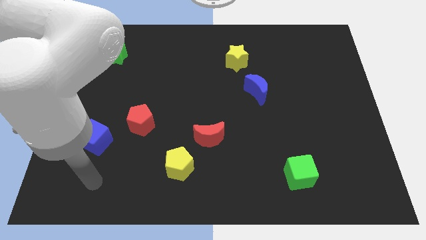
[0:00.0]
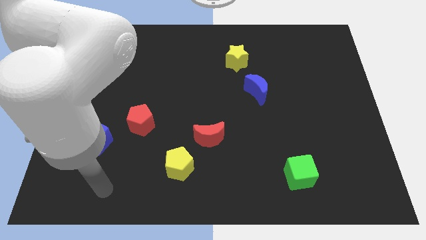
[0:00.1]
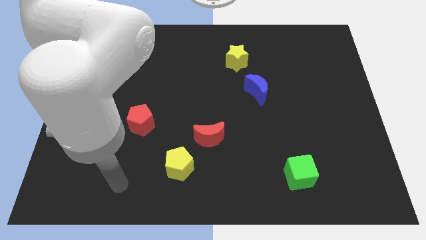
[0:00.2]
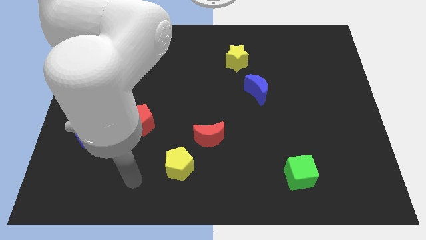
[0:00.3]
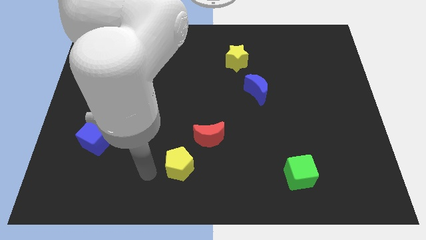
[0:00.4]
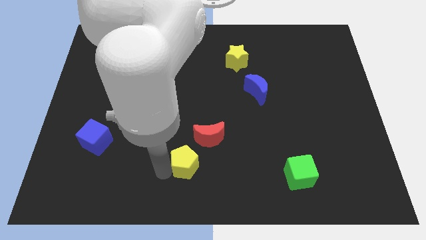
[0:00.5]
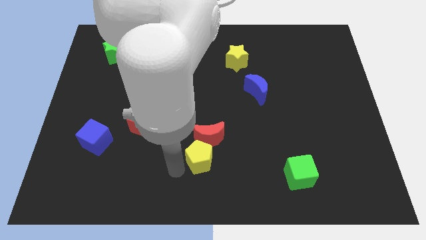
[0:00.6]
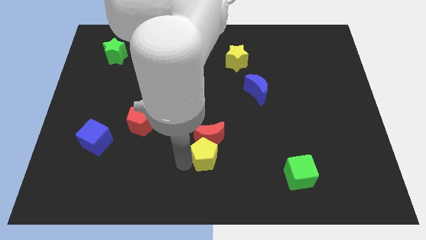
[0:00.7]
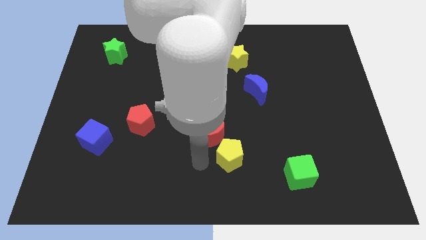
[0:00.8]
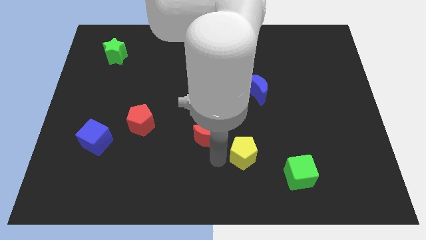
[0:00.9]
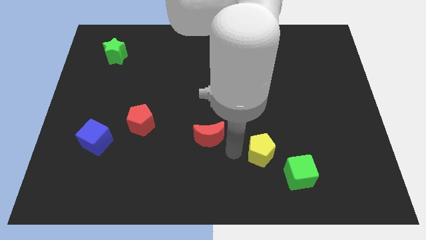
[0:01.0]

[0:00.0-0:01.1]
pull the red moon apart from the yellow pentagon

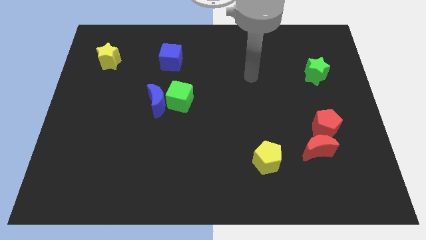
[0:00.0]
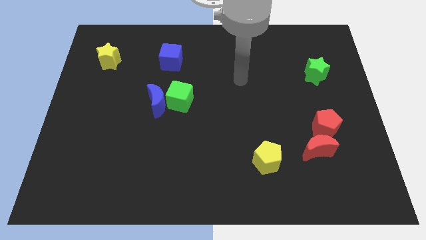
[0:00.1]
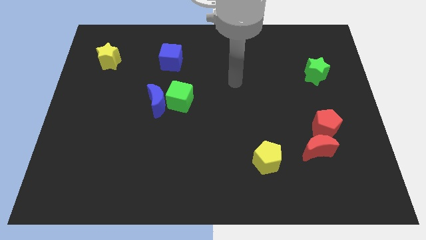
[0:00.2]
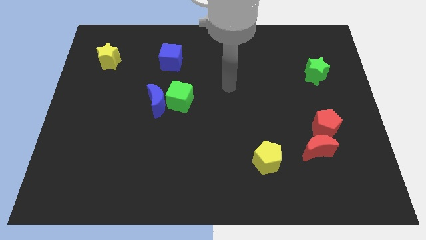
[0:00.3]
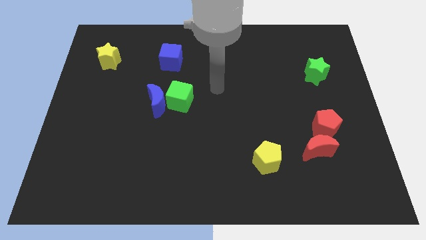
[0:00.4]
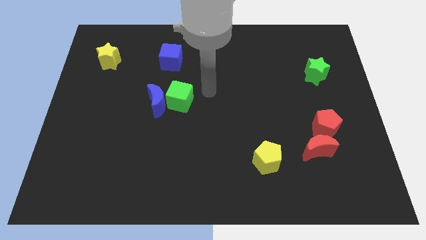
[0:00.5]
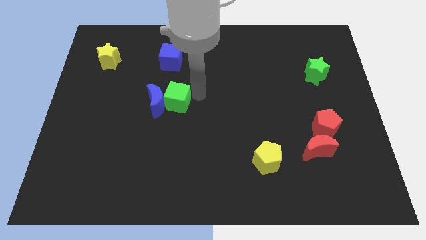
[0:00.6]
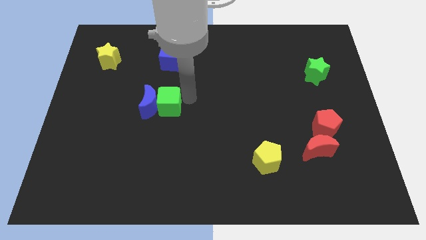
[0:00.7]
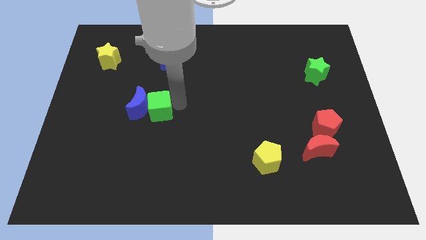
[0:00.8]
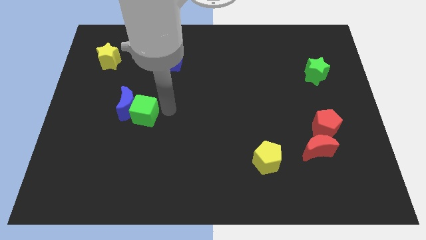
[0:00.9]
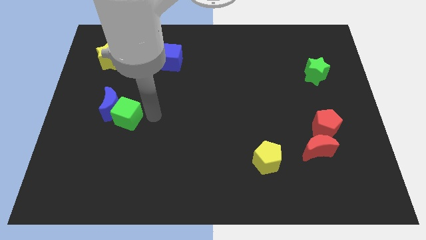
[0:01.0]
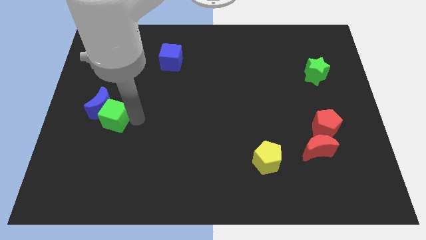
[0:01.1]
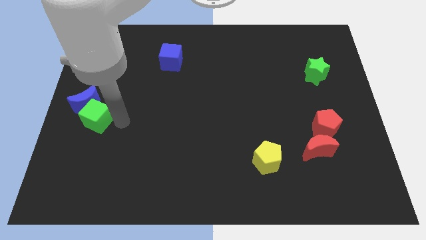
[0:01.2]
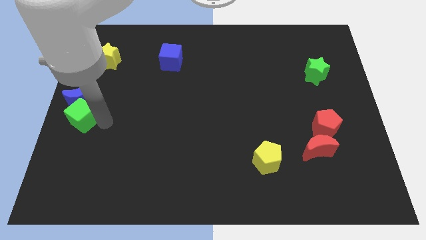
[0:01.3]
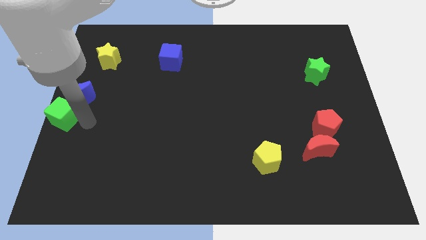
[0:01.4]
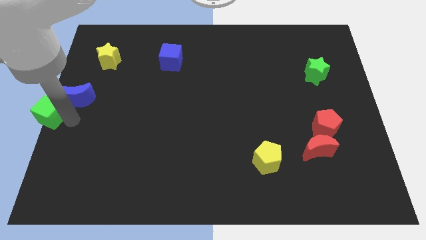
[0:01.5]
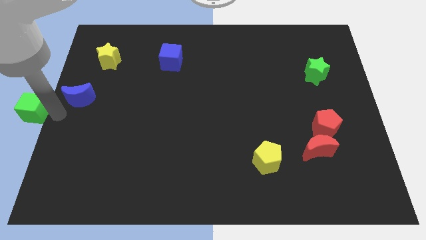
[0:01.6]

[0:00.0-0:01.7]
separate the blue moon from the green cube

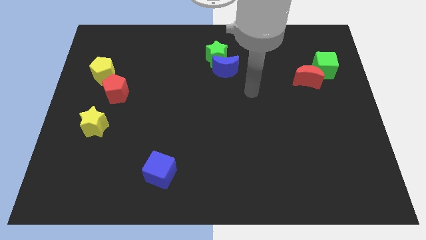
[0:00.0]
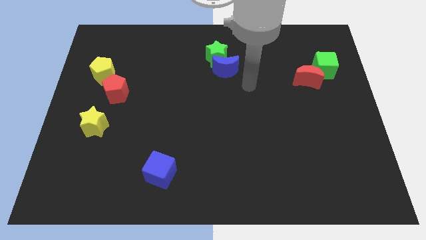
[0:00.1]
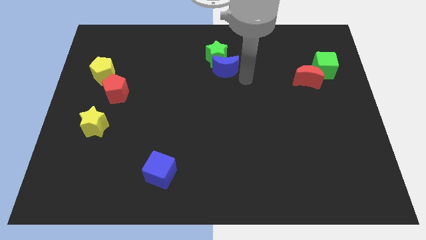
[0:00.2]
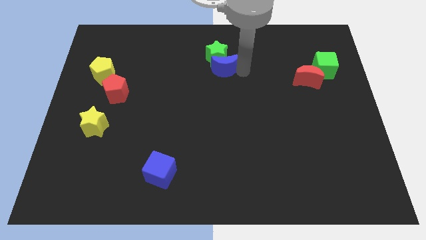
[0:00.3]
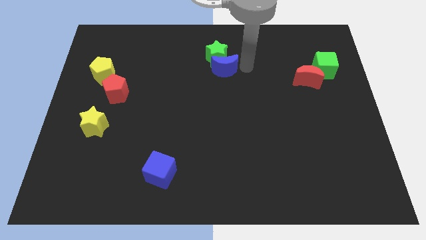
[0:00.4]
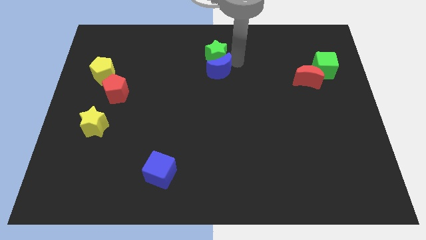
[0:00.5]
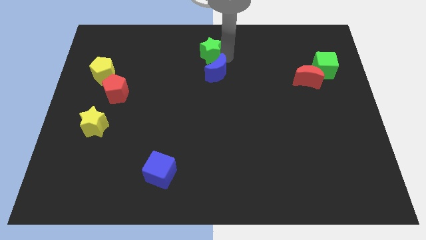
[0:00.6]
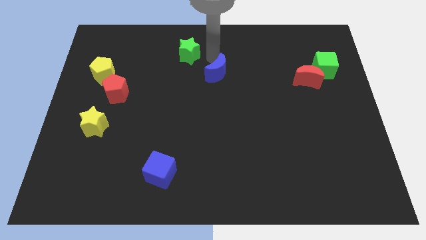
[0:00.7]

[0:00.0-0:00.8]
pull the blue moon apart from the green star

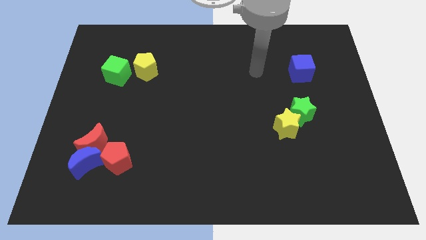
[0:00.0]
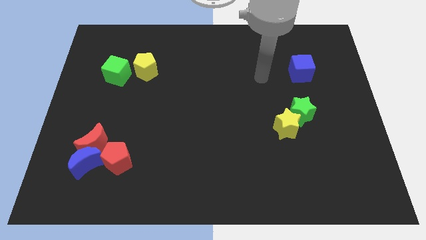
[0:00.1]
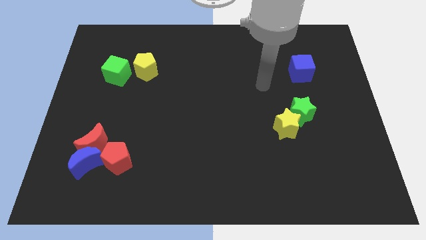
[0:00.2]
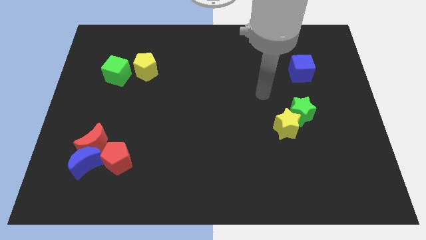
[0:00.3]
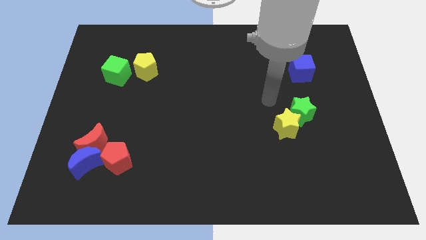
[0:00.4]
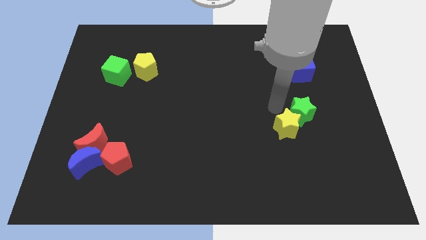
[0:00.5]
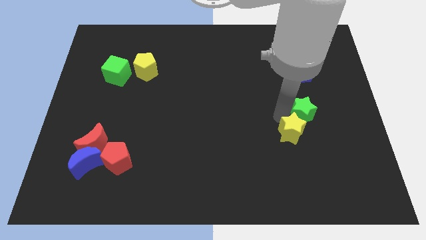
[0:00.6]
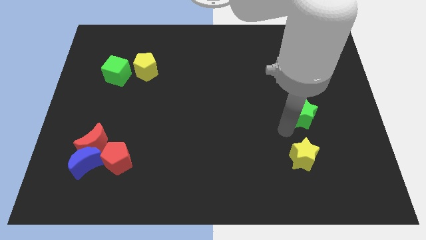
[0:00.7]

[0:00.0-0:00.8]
separate the green star from the yellow star

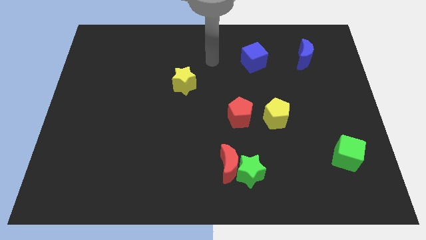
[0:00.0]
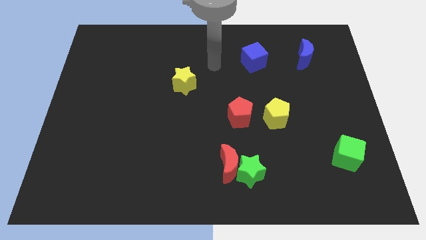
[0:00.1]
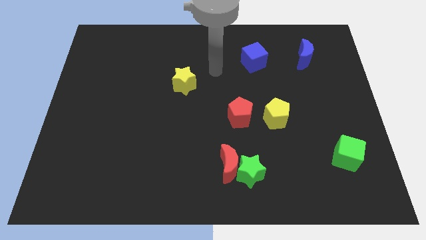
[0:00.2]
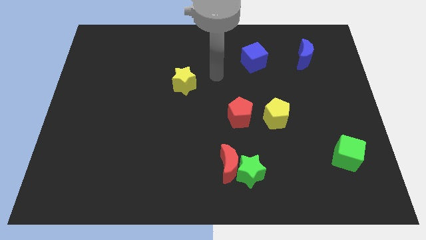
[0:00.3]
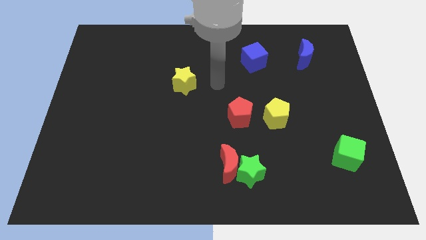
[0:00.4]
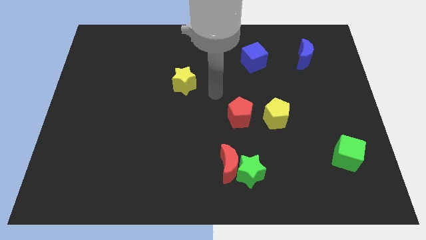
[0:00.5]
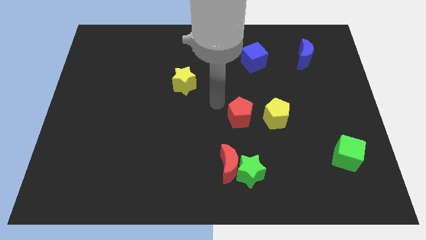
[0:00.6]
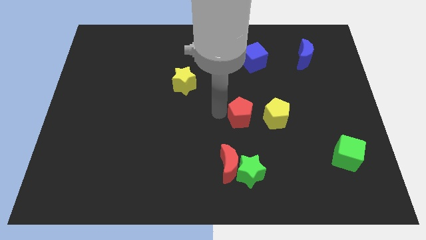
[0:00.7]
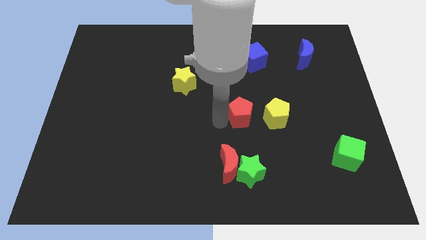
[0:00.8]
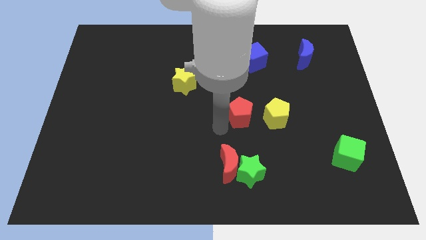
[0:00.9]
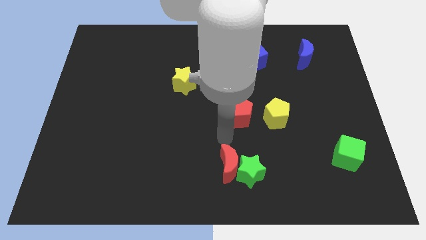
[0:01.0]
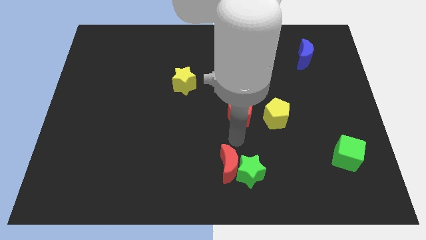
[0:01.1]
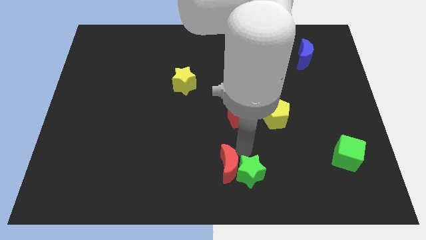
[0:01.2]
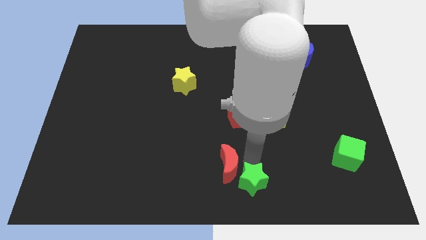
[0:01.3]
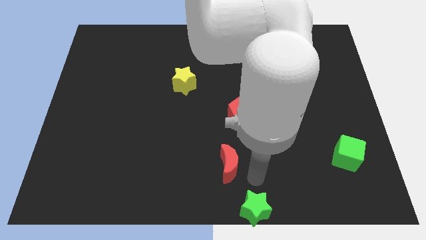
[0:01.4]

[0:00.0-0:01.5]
move the red moon away from the green star

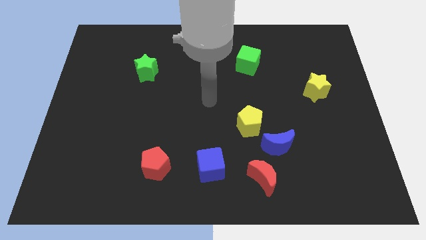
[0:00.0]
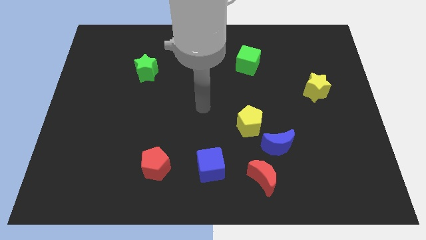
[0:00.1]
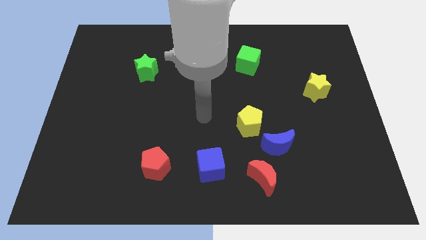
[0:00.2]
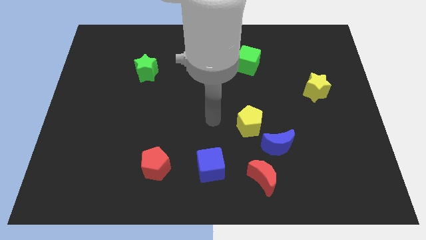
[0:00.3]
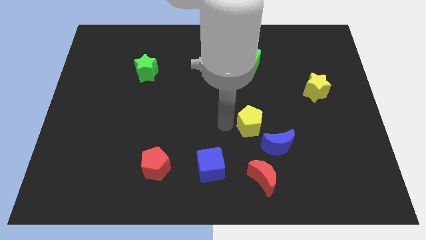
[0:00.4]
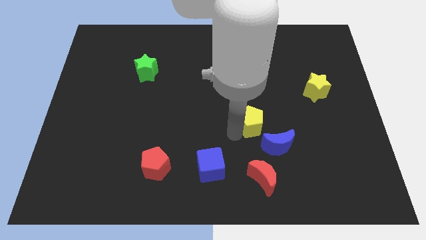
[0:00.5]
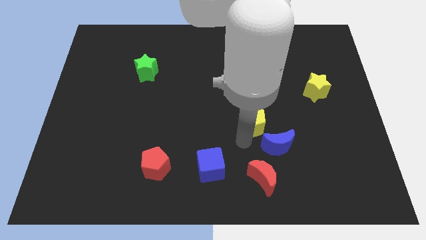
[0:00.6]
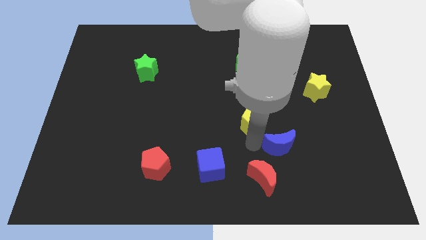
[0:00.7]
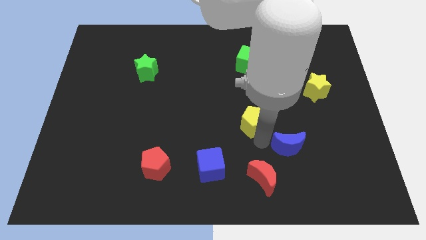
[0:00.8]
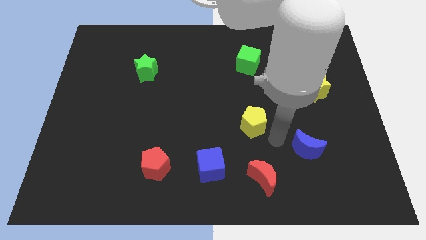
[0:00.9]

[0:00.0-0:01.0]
separate the yellow pentagon from the blue moon

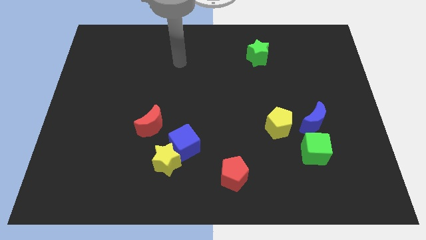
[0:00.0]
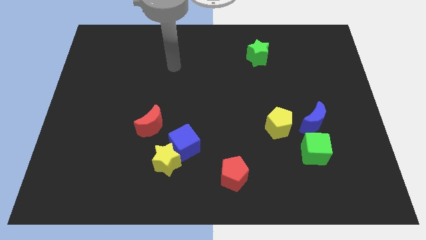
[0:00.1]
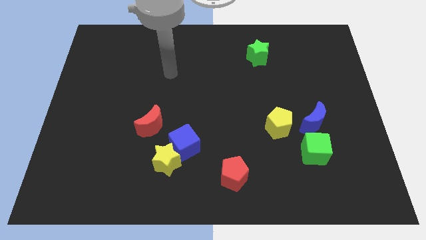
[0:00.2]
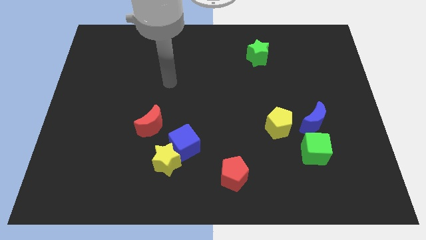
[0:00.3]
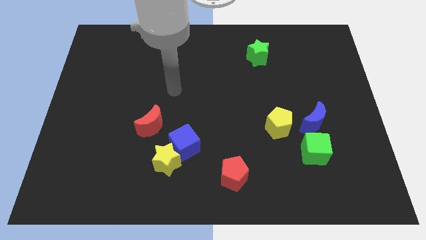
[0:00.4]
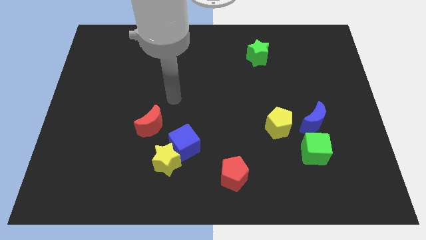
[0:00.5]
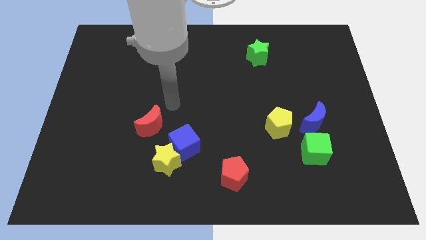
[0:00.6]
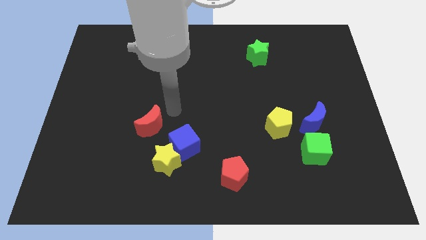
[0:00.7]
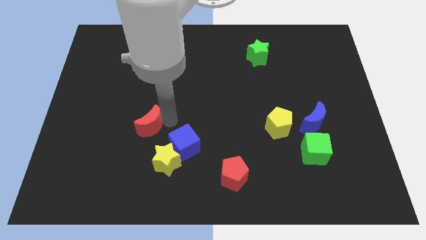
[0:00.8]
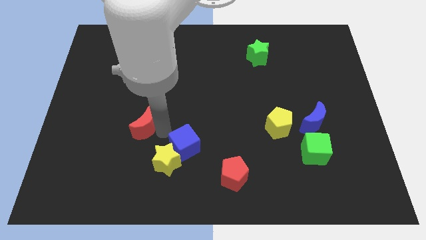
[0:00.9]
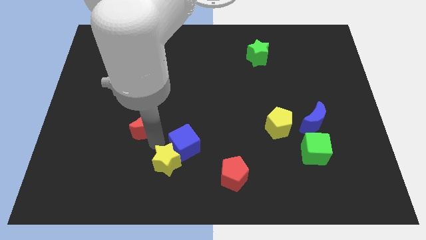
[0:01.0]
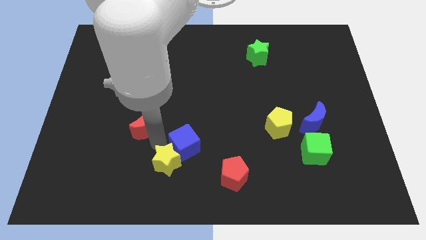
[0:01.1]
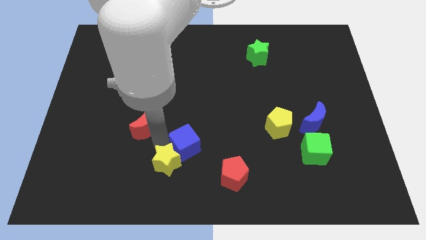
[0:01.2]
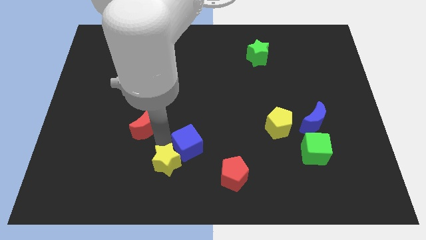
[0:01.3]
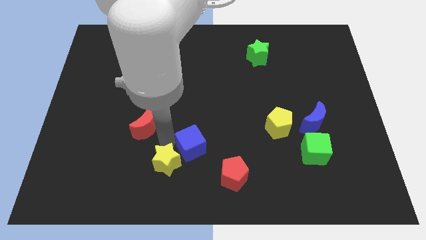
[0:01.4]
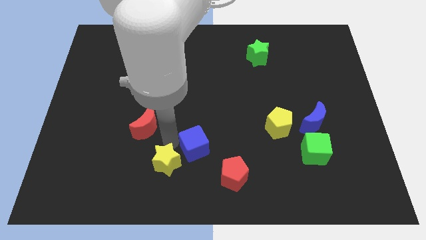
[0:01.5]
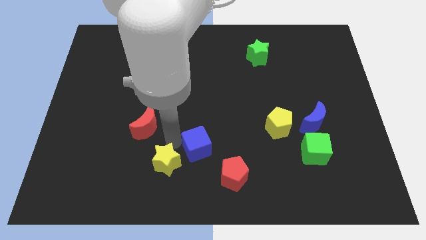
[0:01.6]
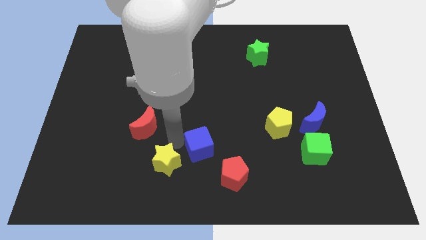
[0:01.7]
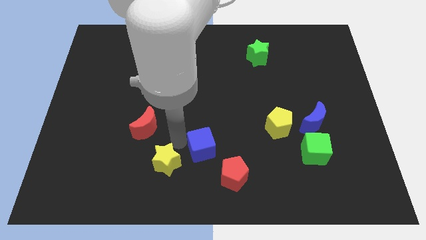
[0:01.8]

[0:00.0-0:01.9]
pull the blue cube apart from the yellow star and red moon

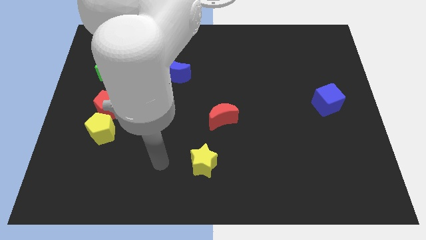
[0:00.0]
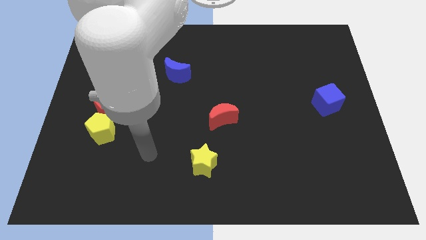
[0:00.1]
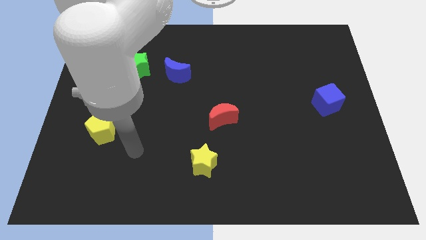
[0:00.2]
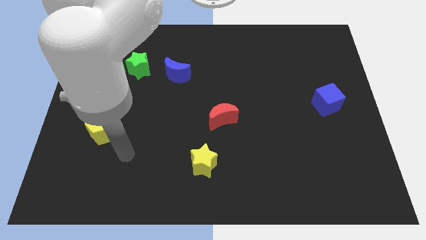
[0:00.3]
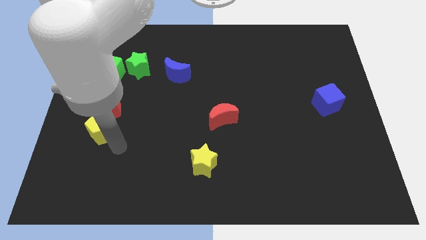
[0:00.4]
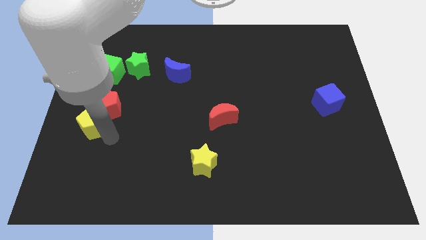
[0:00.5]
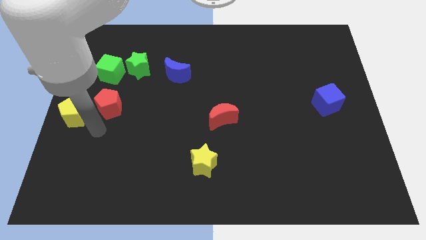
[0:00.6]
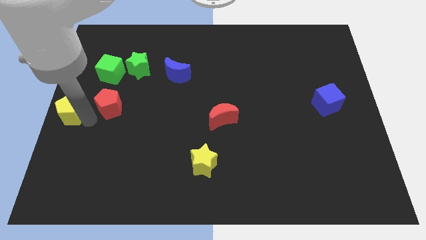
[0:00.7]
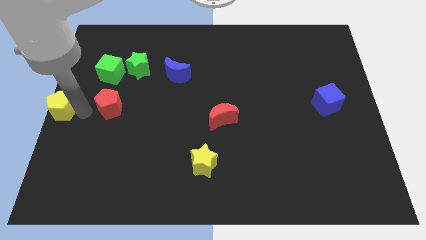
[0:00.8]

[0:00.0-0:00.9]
pull the red pentagon apart from the yellow pentagon
